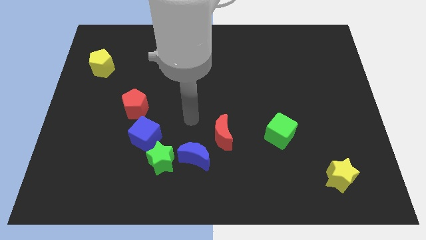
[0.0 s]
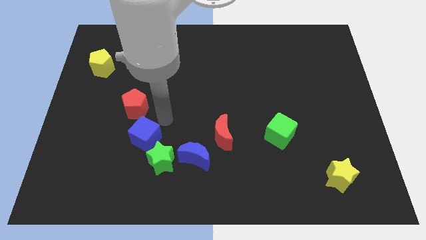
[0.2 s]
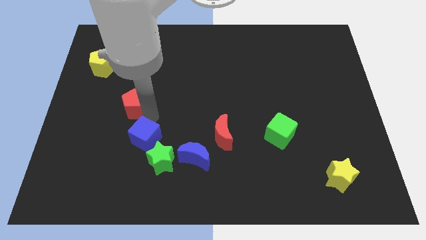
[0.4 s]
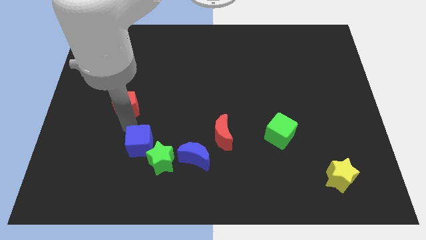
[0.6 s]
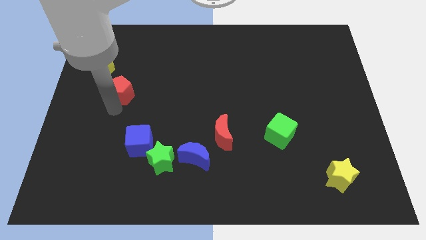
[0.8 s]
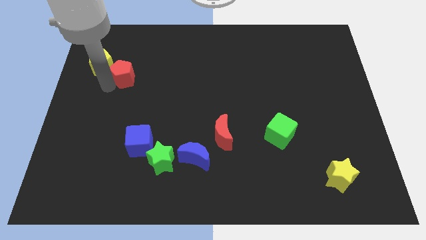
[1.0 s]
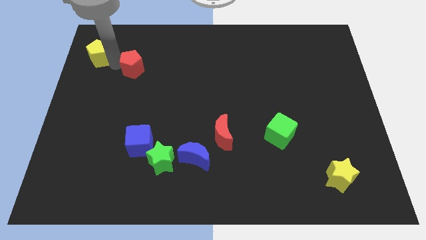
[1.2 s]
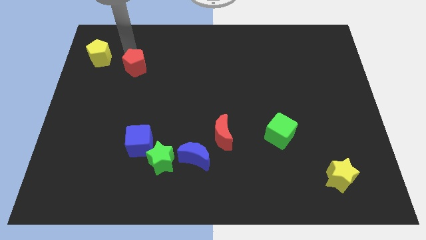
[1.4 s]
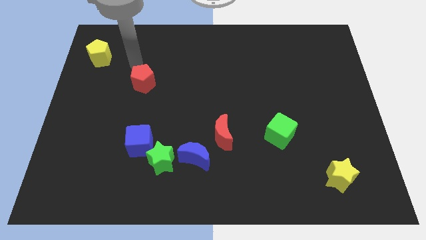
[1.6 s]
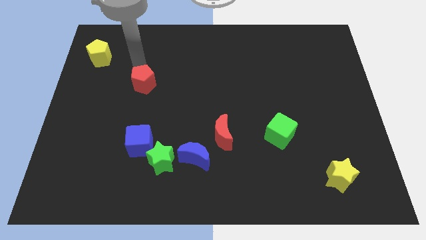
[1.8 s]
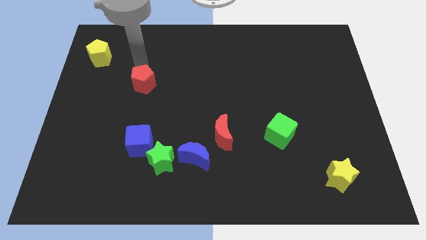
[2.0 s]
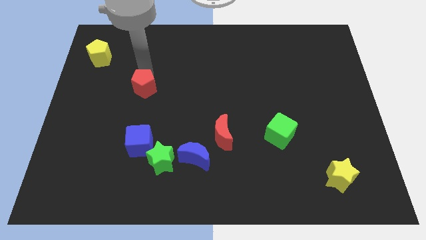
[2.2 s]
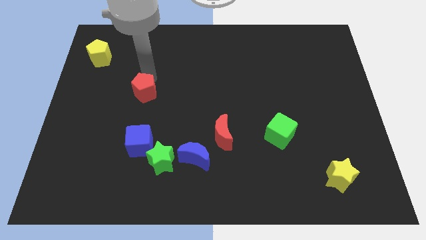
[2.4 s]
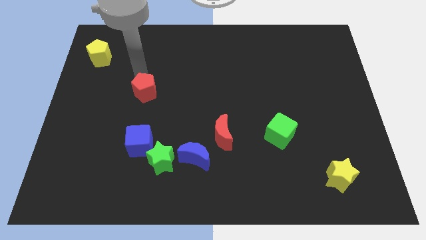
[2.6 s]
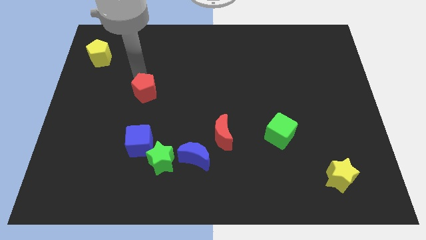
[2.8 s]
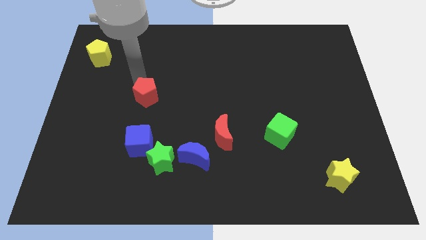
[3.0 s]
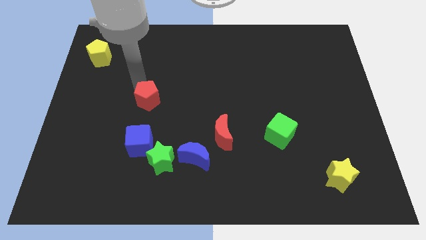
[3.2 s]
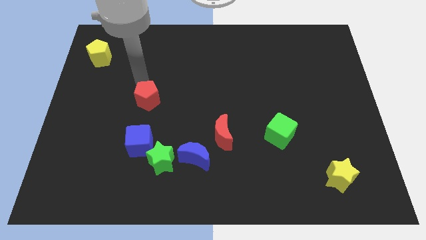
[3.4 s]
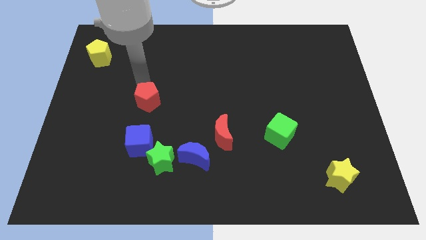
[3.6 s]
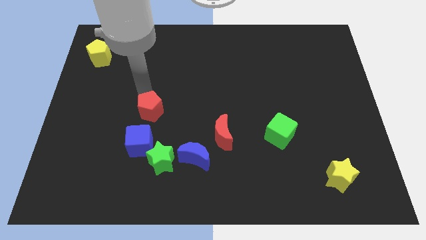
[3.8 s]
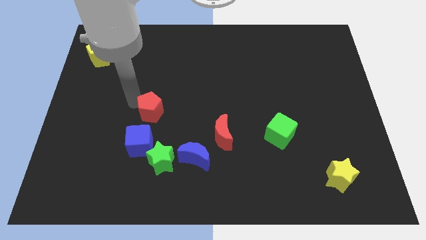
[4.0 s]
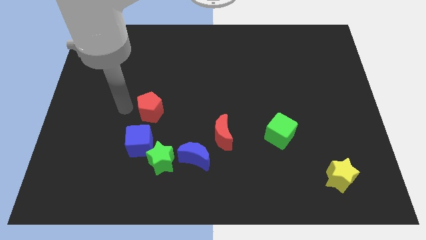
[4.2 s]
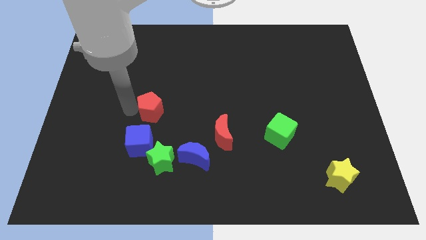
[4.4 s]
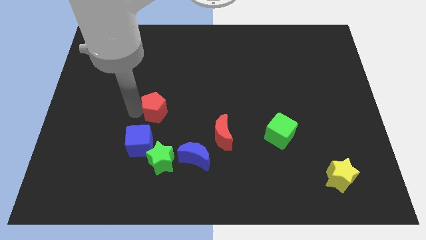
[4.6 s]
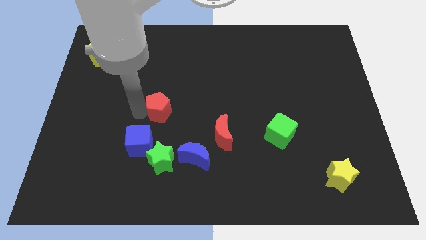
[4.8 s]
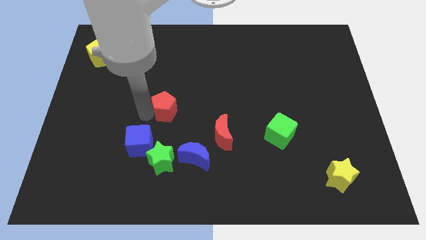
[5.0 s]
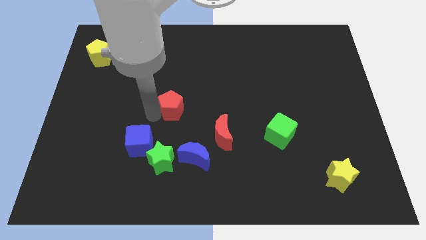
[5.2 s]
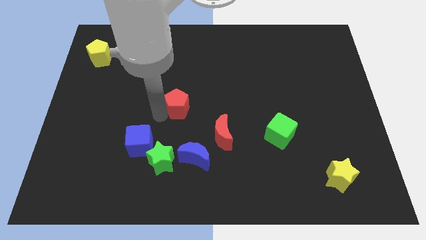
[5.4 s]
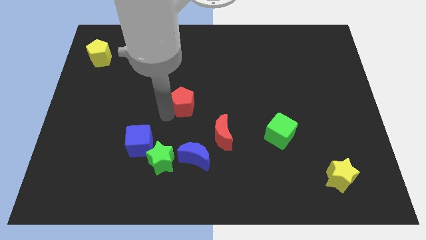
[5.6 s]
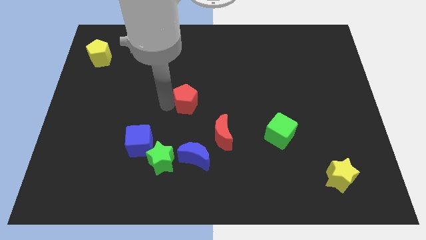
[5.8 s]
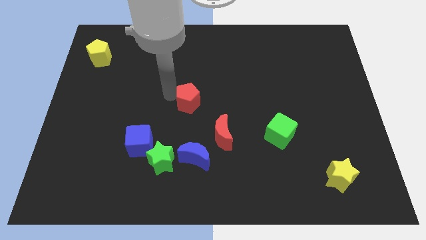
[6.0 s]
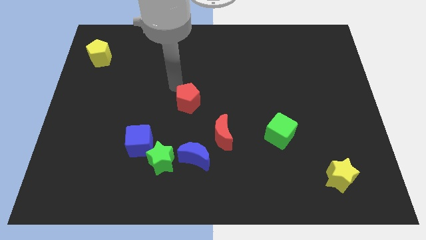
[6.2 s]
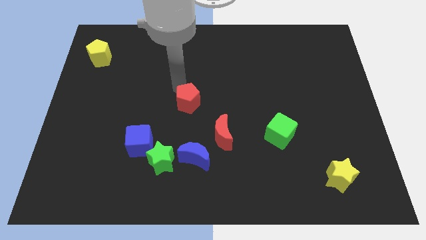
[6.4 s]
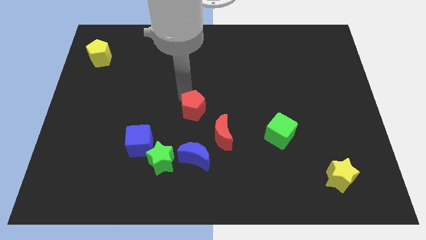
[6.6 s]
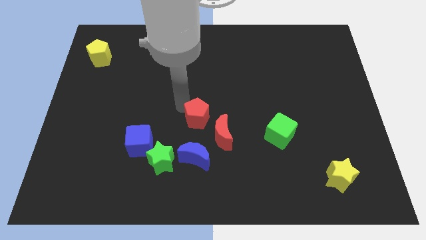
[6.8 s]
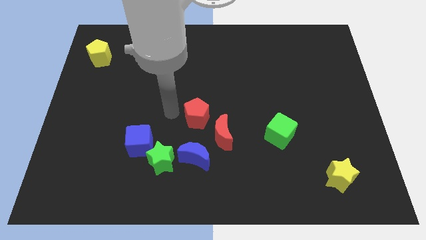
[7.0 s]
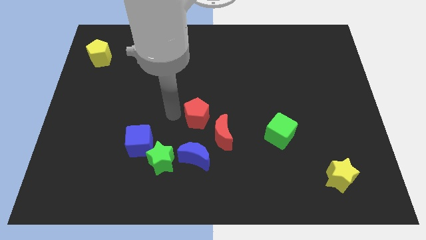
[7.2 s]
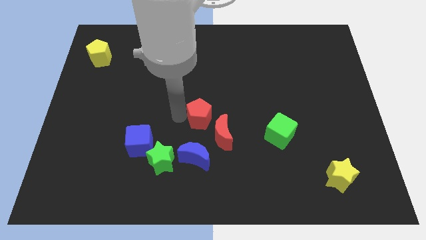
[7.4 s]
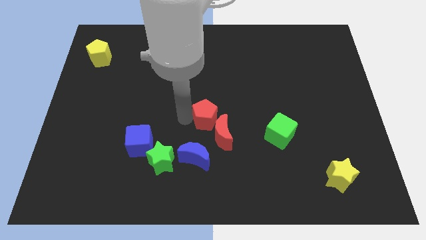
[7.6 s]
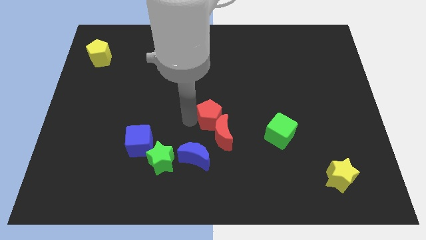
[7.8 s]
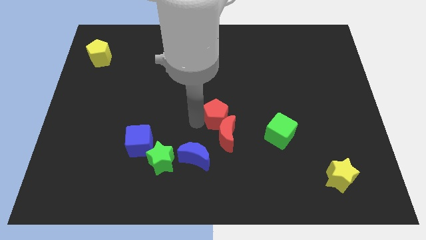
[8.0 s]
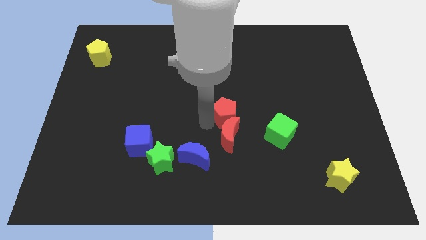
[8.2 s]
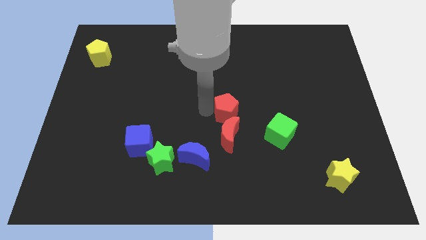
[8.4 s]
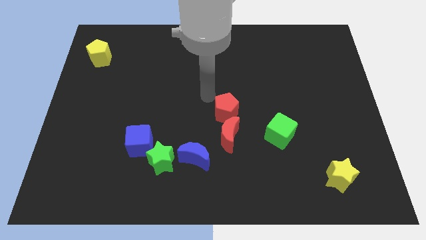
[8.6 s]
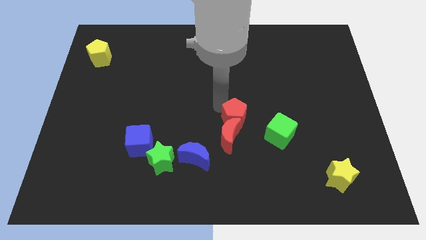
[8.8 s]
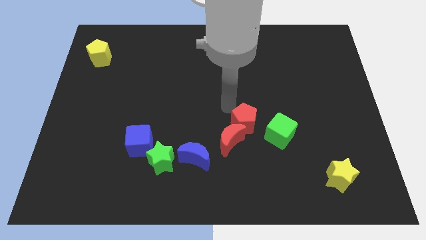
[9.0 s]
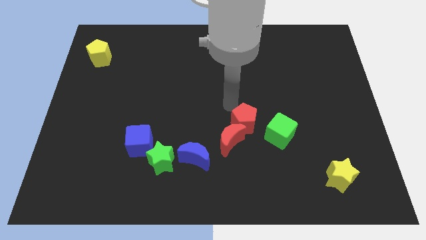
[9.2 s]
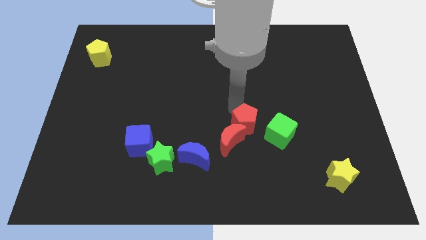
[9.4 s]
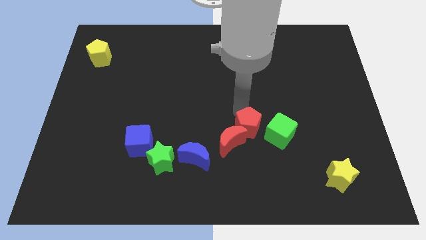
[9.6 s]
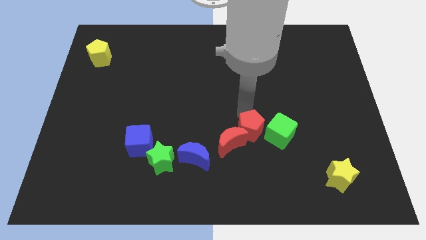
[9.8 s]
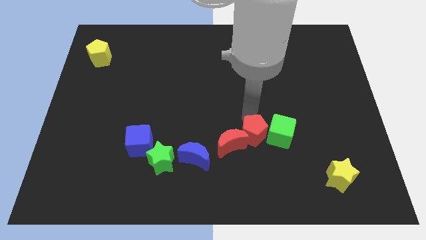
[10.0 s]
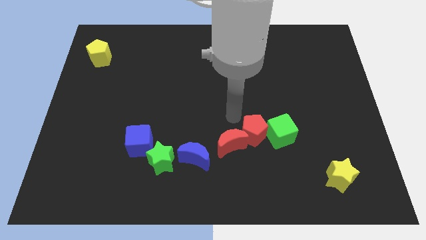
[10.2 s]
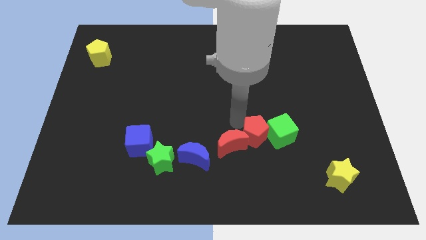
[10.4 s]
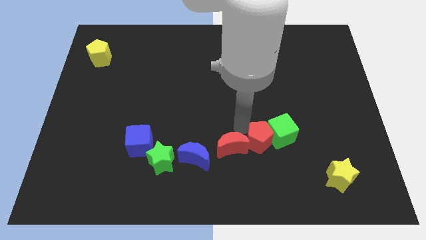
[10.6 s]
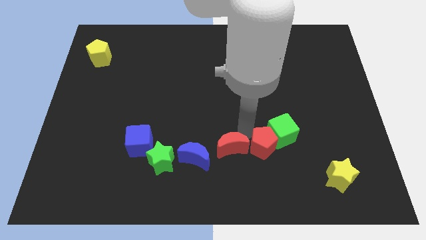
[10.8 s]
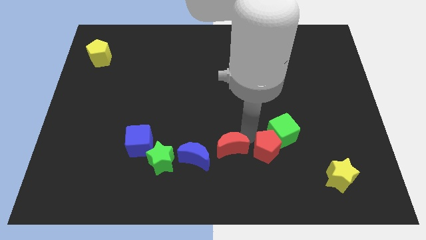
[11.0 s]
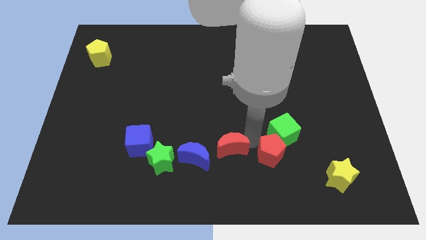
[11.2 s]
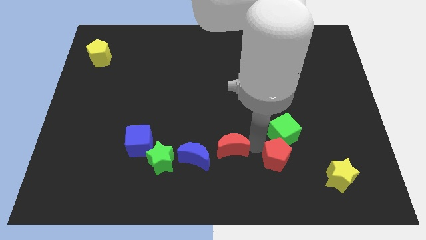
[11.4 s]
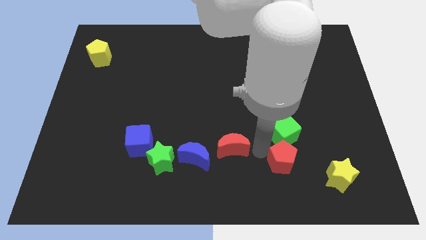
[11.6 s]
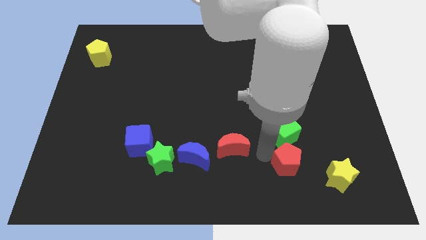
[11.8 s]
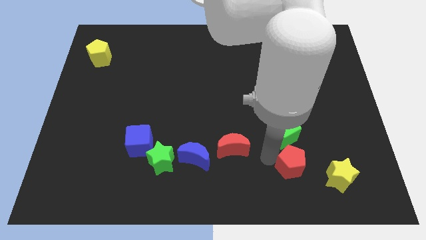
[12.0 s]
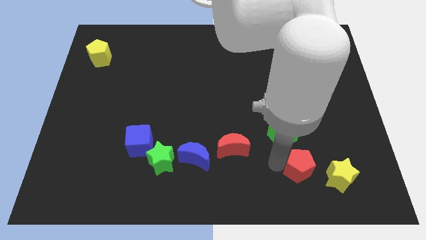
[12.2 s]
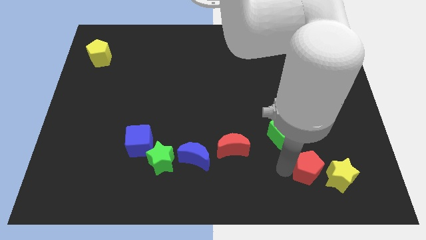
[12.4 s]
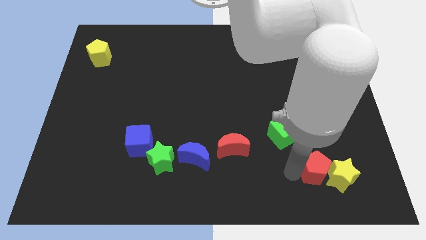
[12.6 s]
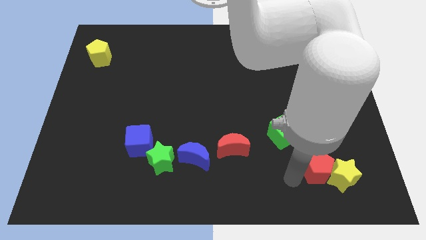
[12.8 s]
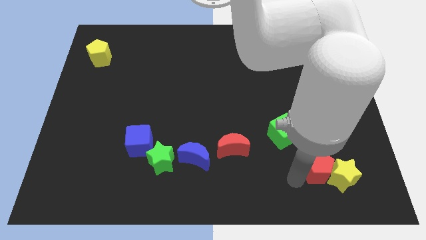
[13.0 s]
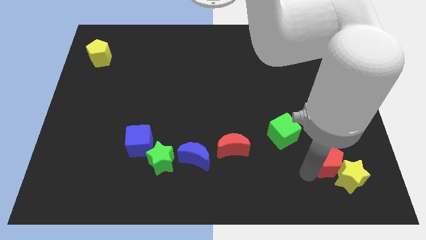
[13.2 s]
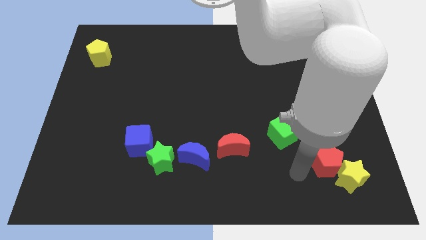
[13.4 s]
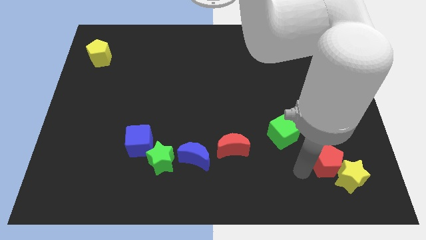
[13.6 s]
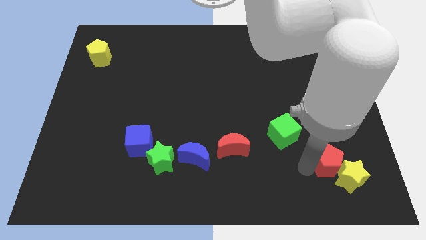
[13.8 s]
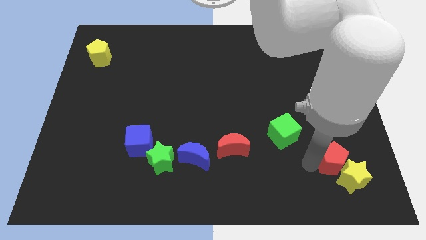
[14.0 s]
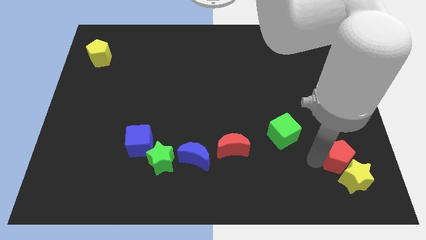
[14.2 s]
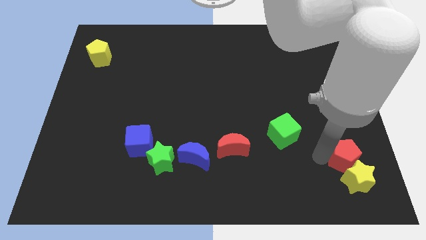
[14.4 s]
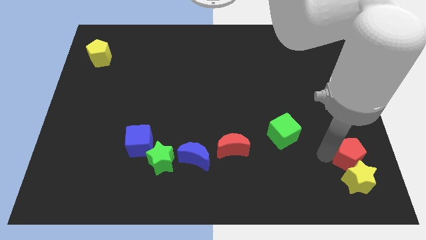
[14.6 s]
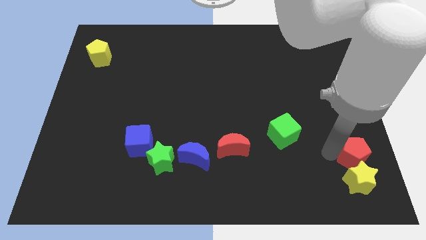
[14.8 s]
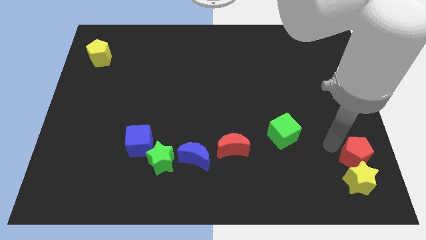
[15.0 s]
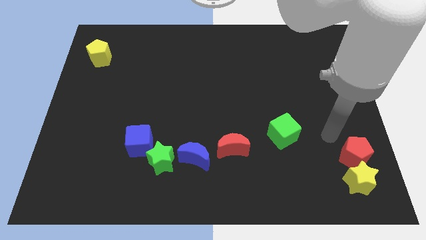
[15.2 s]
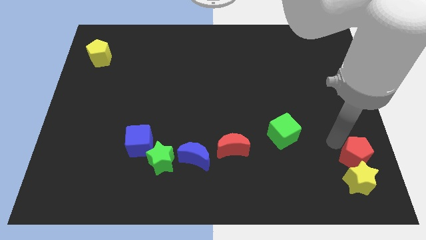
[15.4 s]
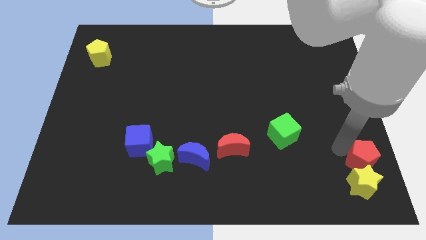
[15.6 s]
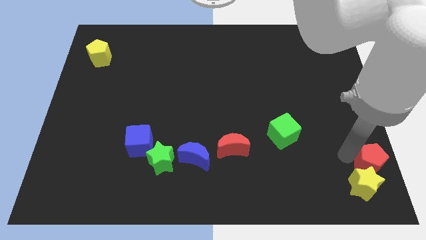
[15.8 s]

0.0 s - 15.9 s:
slide the red pentagon to the bottom right
